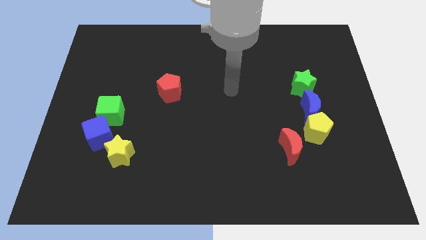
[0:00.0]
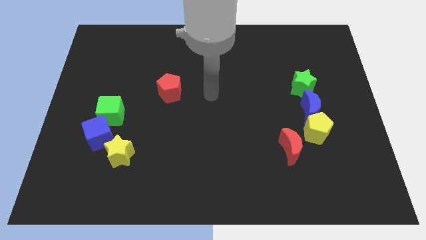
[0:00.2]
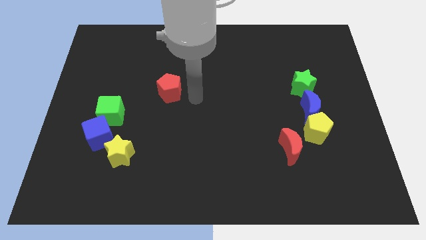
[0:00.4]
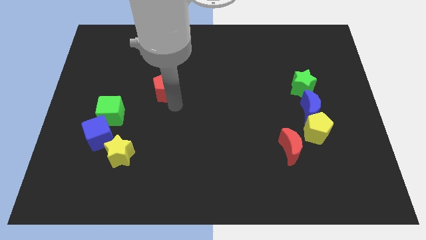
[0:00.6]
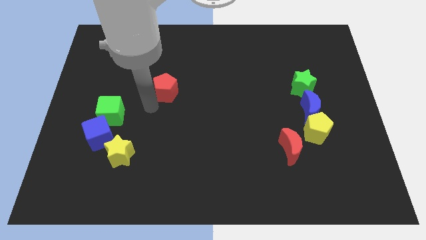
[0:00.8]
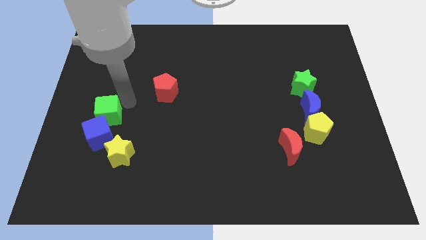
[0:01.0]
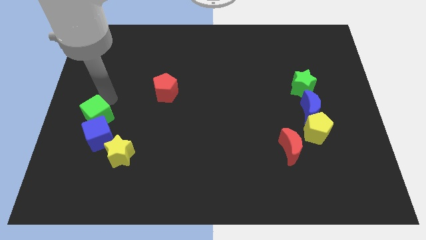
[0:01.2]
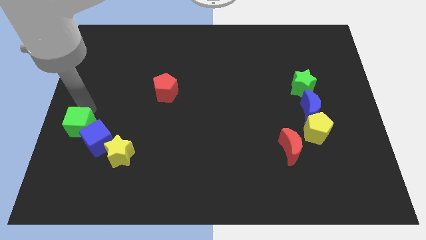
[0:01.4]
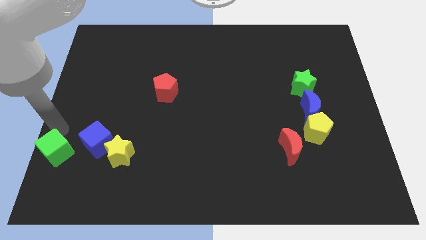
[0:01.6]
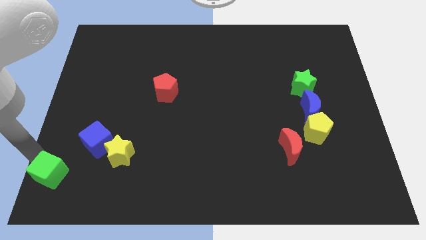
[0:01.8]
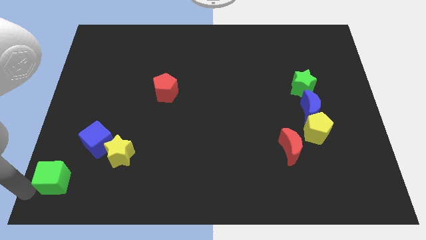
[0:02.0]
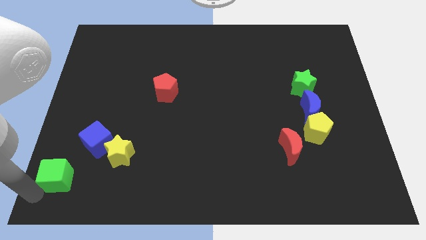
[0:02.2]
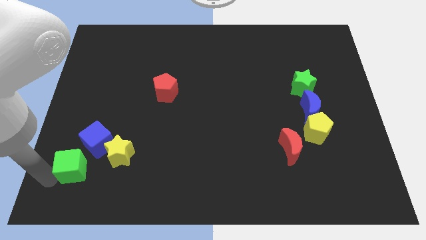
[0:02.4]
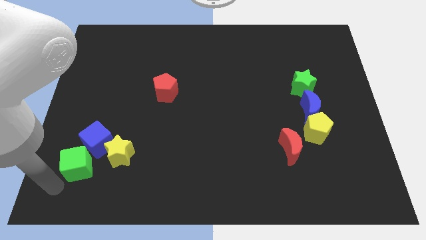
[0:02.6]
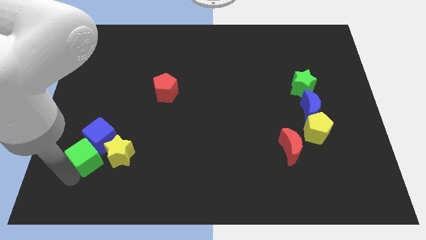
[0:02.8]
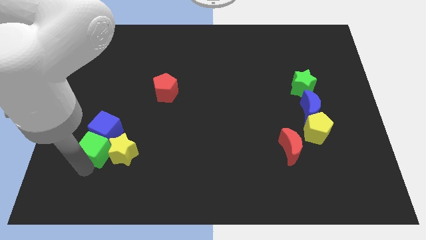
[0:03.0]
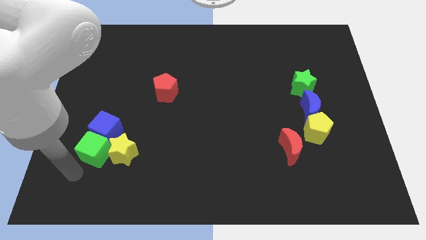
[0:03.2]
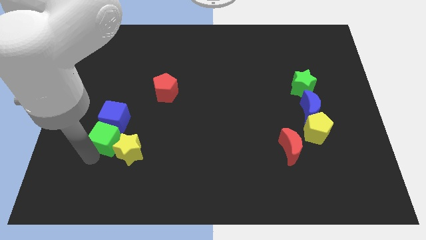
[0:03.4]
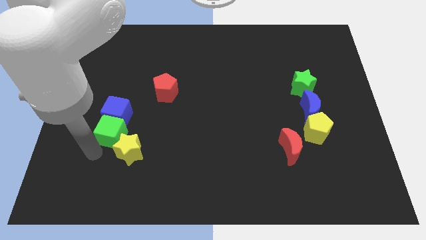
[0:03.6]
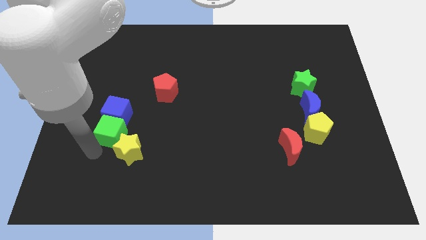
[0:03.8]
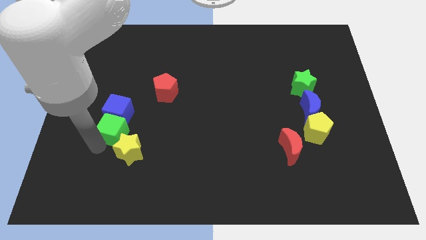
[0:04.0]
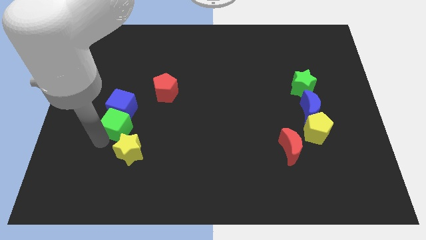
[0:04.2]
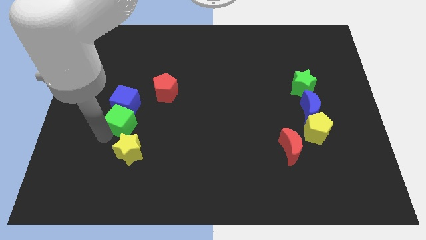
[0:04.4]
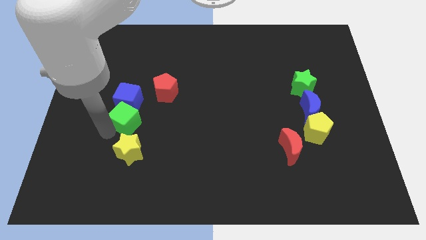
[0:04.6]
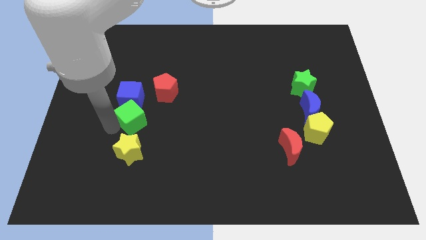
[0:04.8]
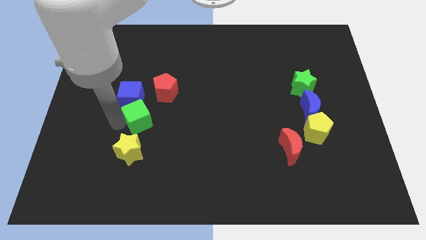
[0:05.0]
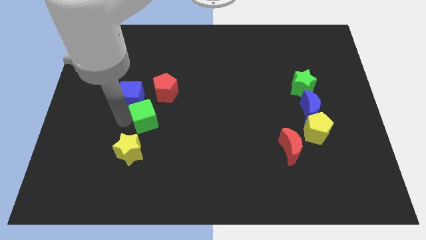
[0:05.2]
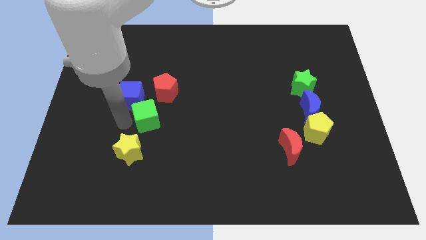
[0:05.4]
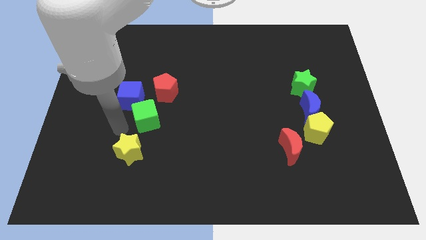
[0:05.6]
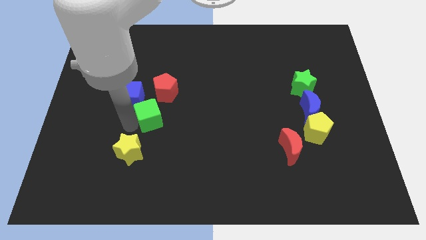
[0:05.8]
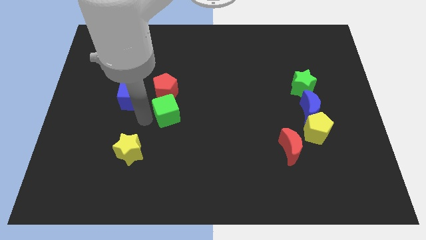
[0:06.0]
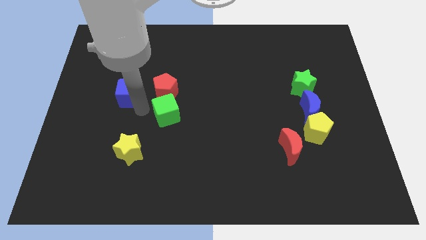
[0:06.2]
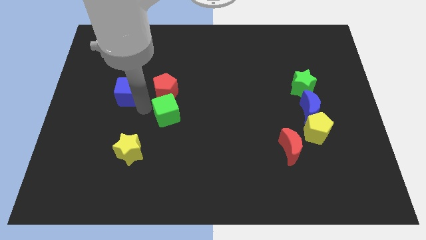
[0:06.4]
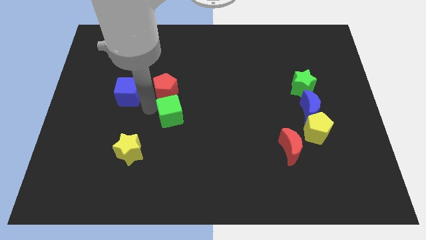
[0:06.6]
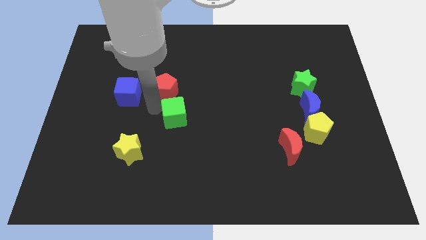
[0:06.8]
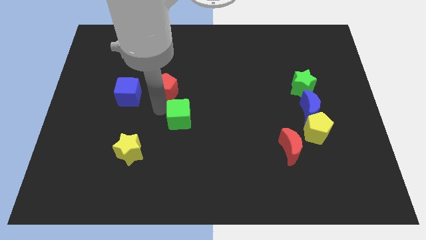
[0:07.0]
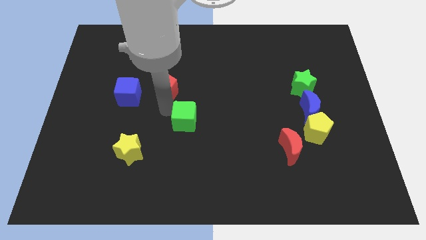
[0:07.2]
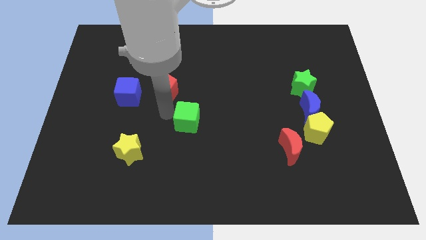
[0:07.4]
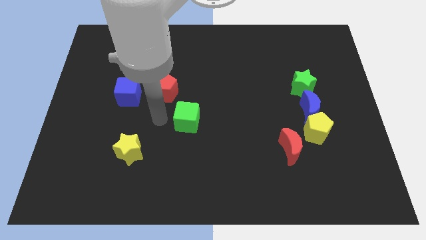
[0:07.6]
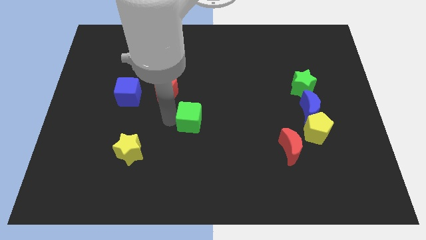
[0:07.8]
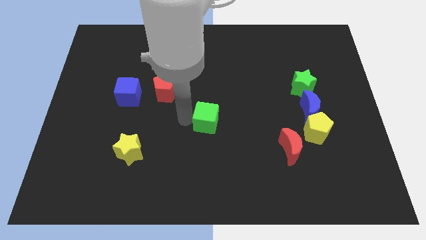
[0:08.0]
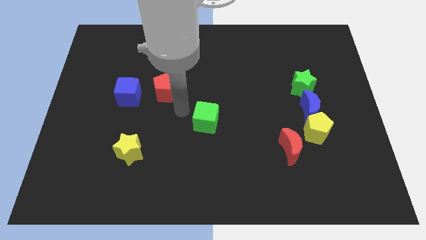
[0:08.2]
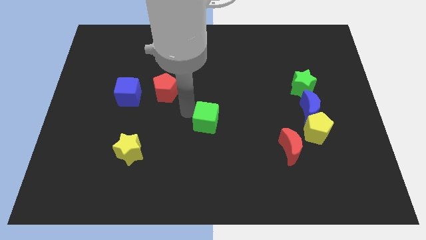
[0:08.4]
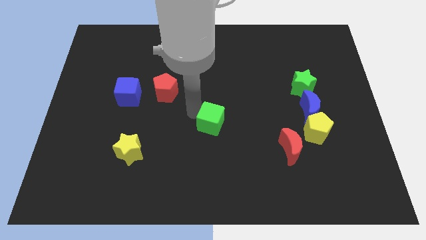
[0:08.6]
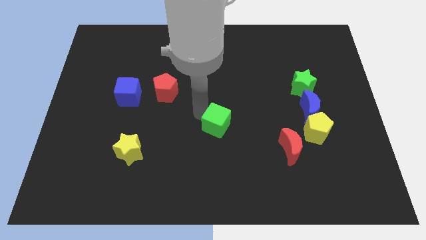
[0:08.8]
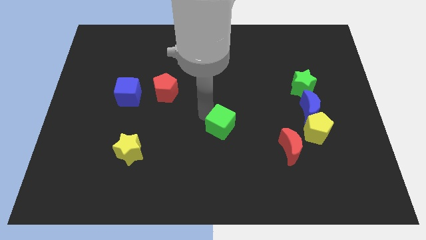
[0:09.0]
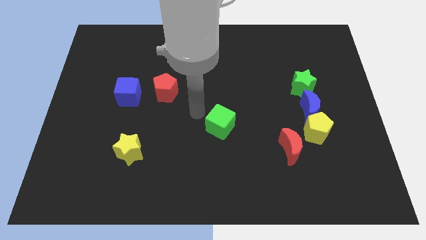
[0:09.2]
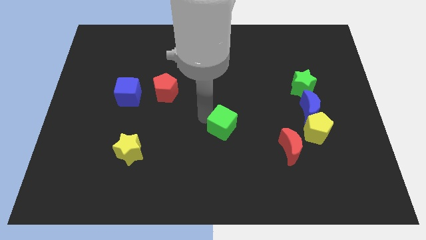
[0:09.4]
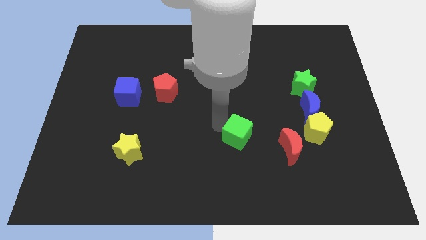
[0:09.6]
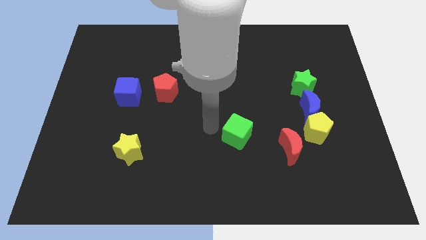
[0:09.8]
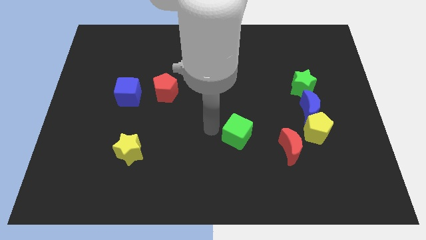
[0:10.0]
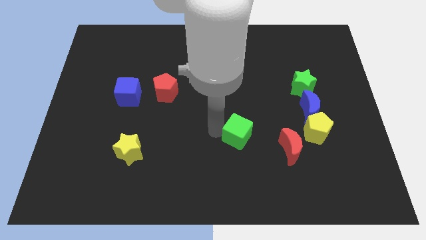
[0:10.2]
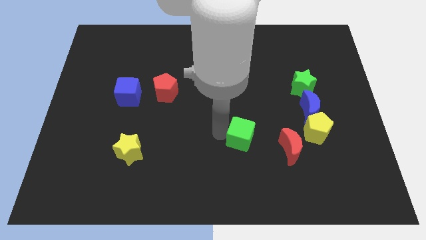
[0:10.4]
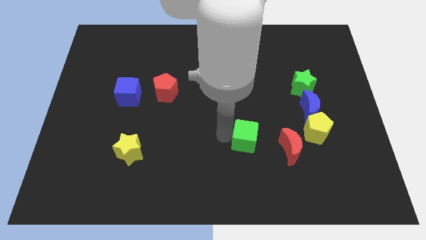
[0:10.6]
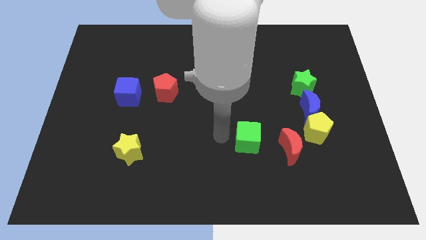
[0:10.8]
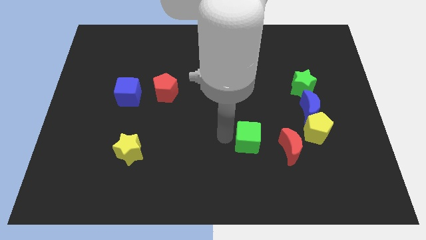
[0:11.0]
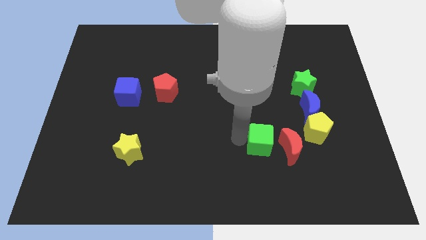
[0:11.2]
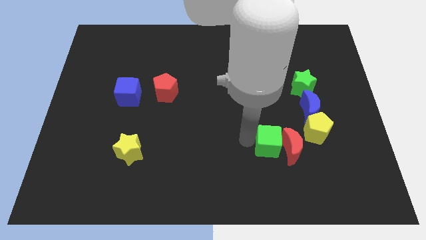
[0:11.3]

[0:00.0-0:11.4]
slide the green cube to the red moon

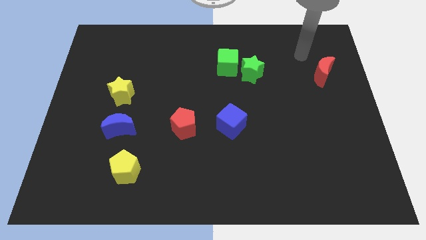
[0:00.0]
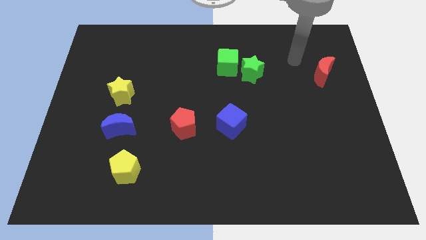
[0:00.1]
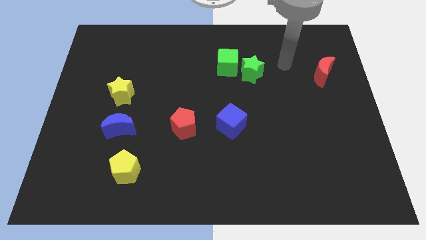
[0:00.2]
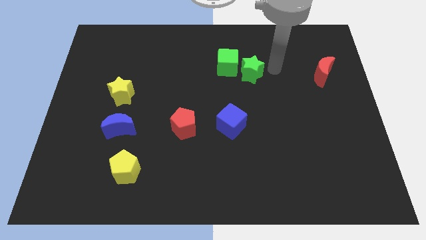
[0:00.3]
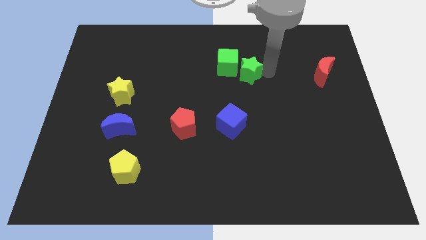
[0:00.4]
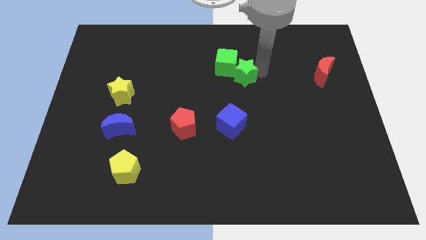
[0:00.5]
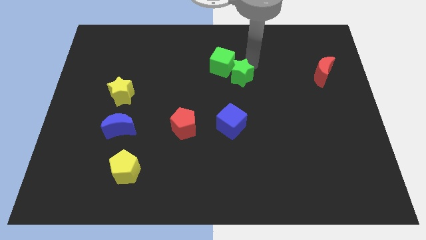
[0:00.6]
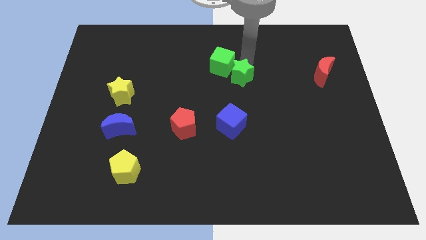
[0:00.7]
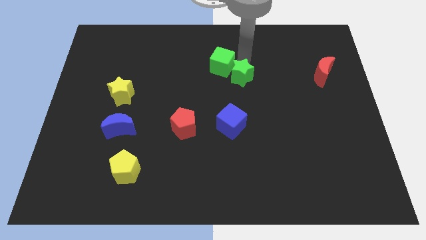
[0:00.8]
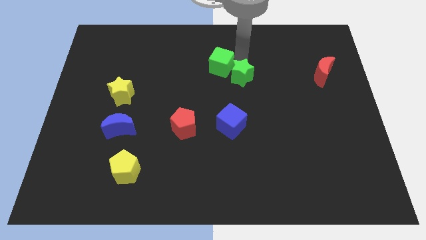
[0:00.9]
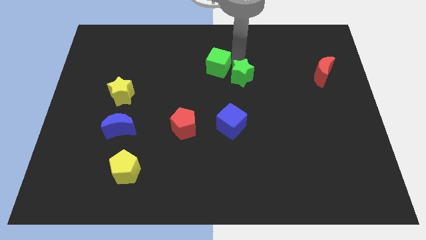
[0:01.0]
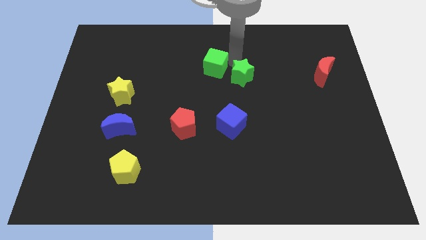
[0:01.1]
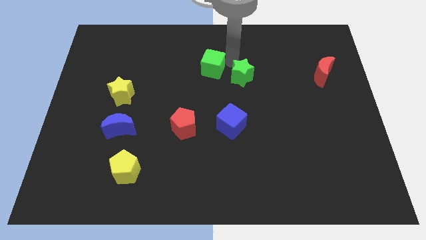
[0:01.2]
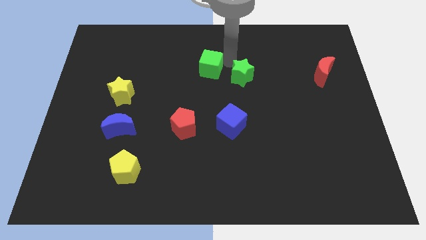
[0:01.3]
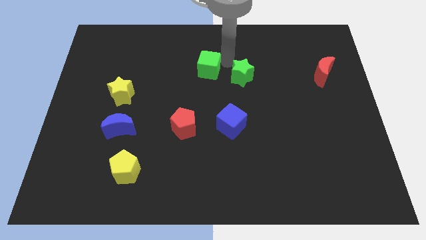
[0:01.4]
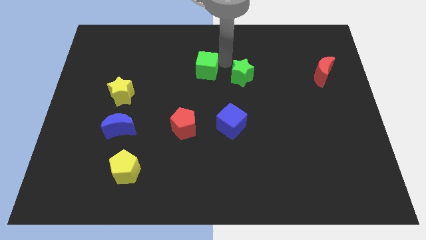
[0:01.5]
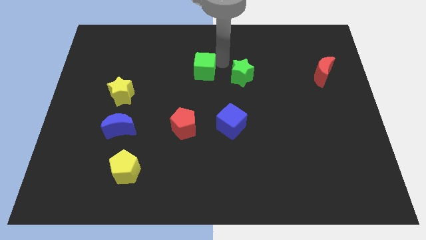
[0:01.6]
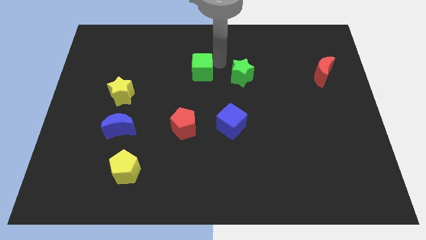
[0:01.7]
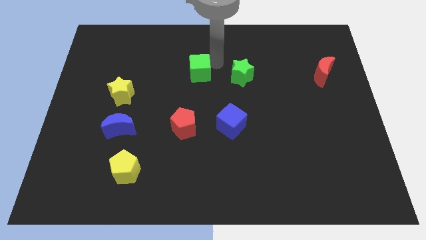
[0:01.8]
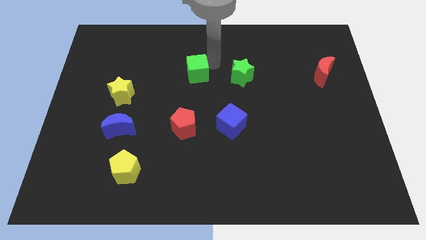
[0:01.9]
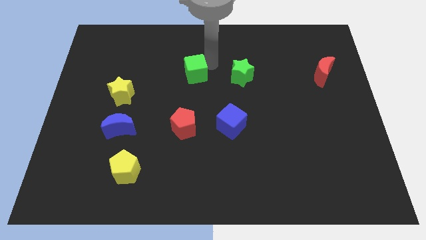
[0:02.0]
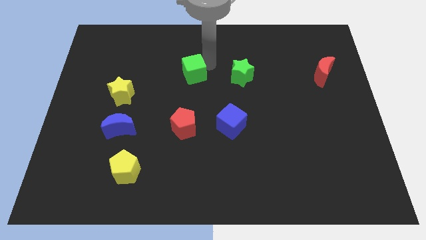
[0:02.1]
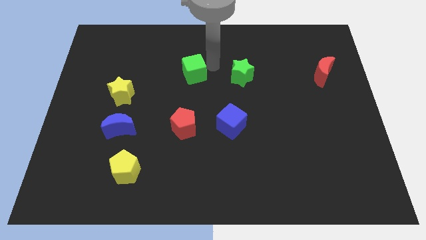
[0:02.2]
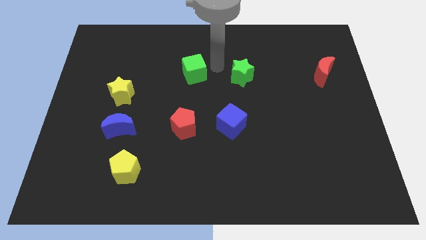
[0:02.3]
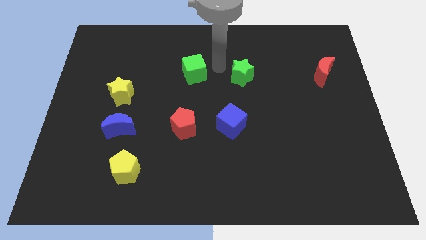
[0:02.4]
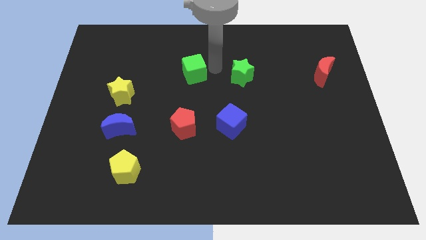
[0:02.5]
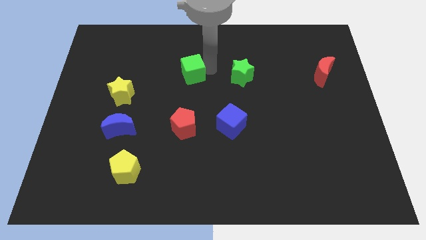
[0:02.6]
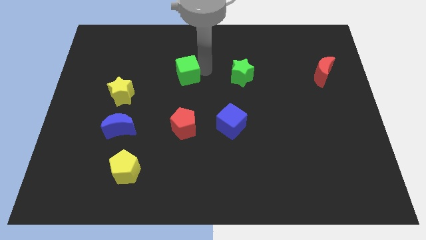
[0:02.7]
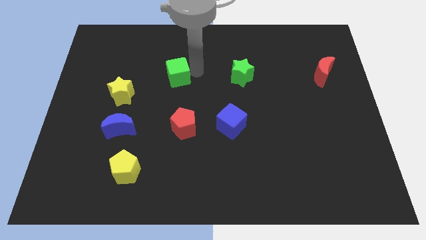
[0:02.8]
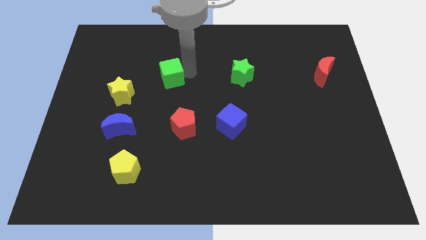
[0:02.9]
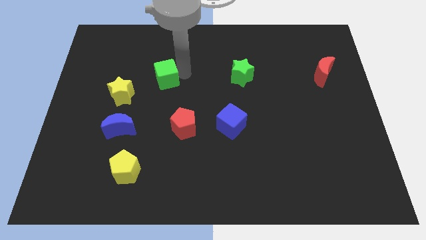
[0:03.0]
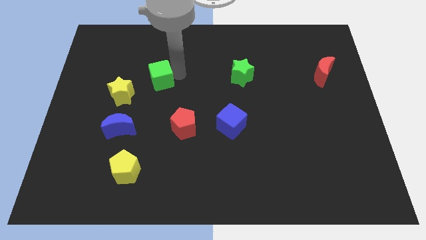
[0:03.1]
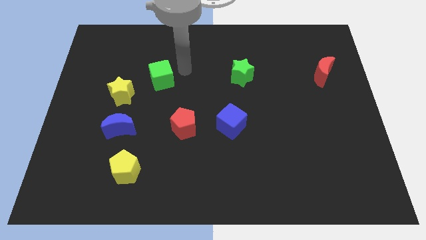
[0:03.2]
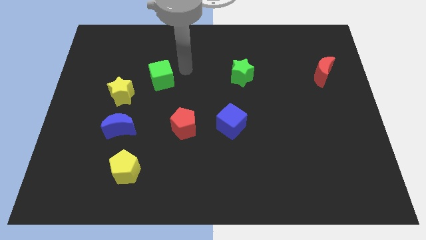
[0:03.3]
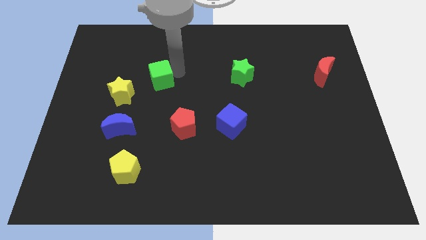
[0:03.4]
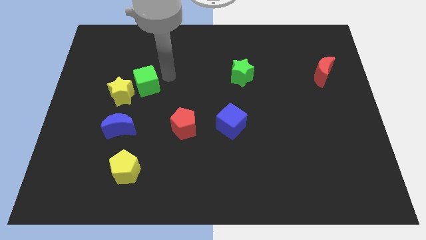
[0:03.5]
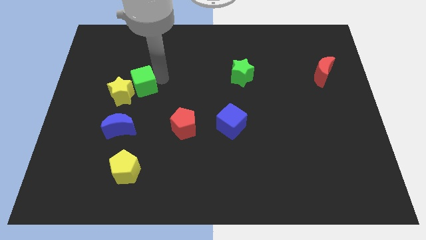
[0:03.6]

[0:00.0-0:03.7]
slide the green cube to the yellow star
